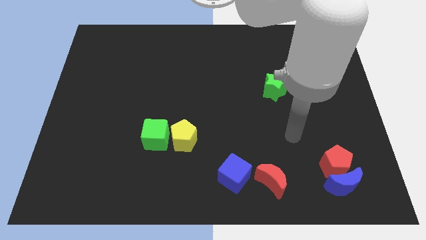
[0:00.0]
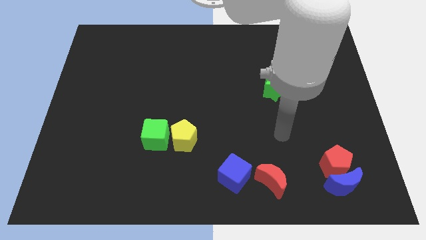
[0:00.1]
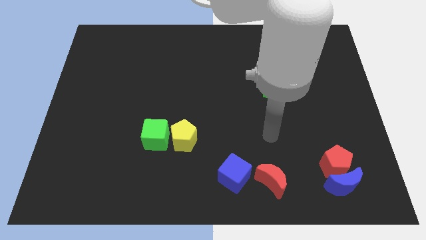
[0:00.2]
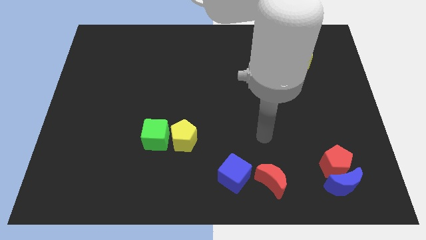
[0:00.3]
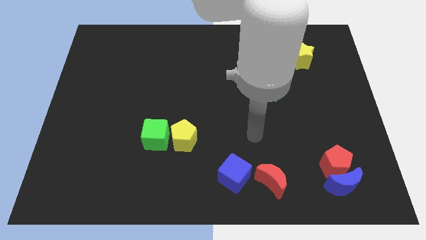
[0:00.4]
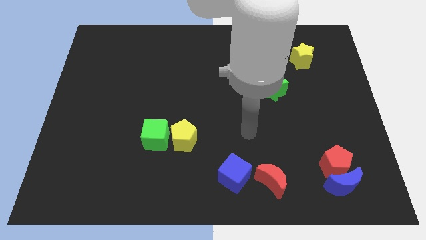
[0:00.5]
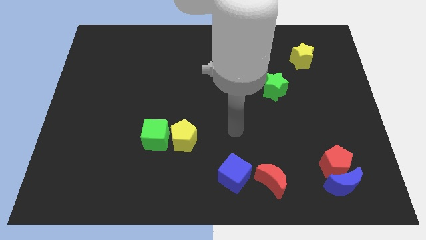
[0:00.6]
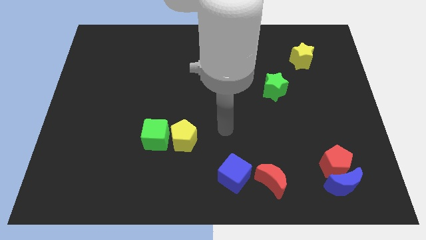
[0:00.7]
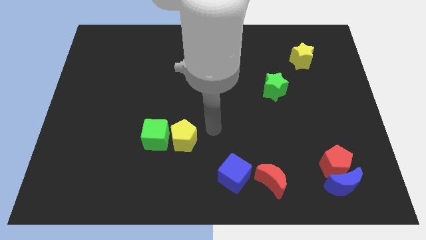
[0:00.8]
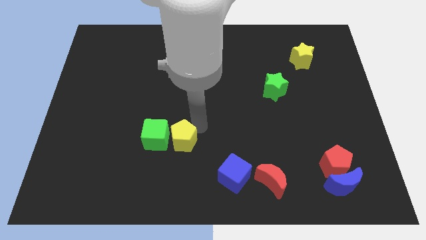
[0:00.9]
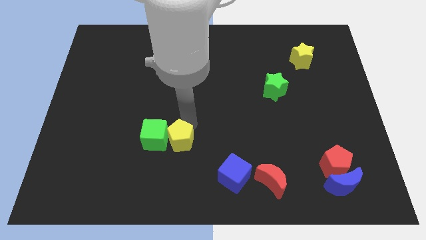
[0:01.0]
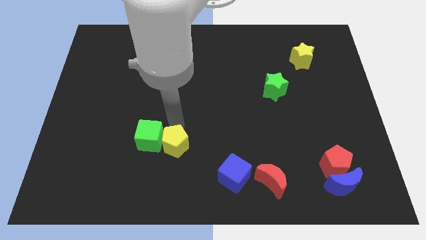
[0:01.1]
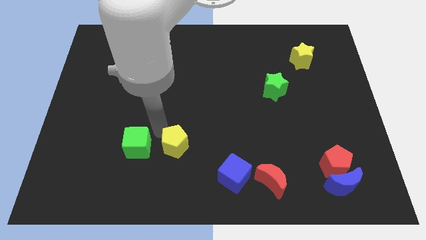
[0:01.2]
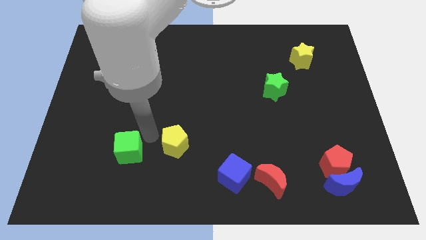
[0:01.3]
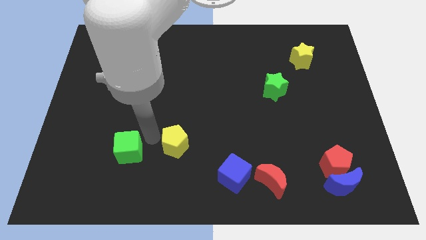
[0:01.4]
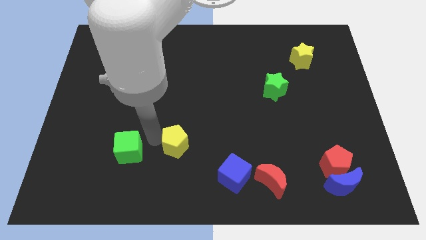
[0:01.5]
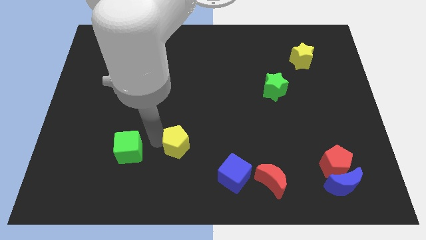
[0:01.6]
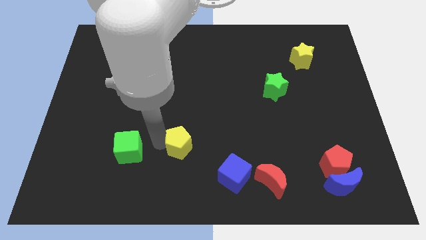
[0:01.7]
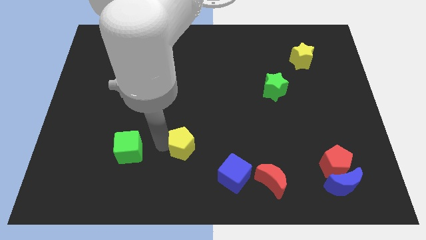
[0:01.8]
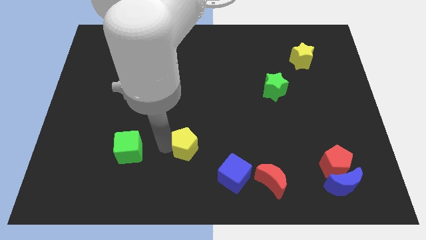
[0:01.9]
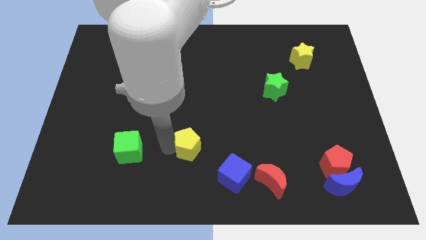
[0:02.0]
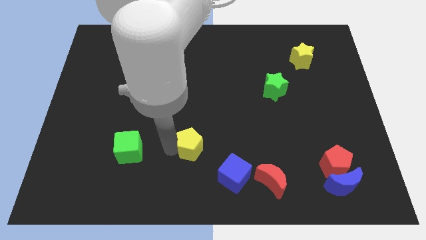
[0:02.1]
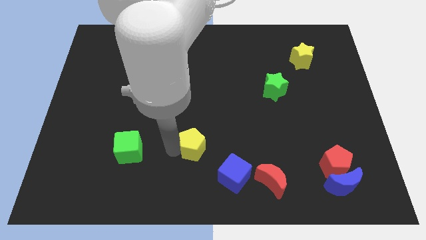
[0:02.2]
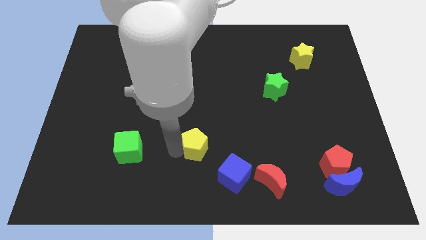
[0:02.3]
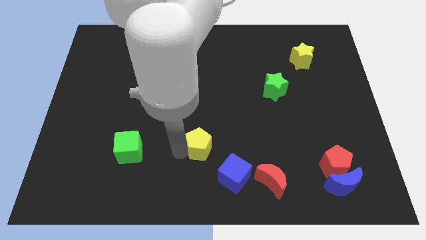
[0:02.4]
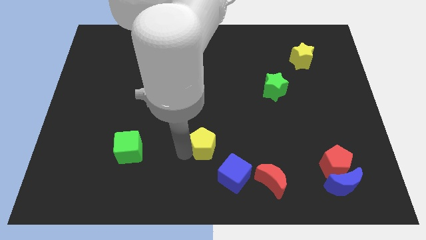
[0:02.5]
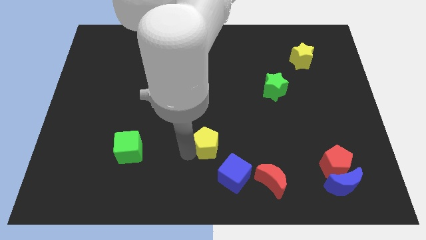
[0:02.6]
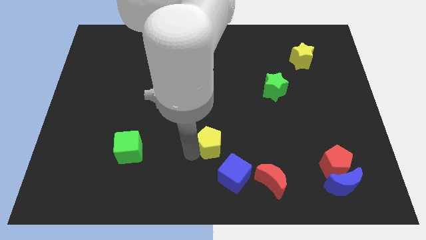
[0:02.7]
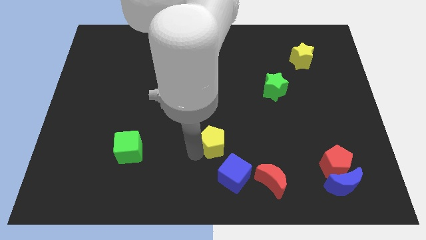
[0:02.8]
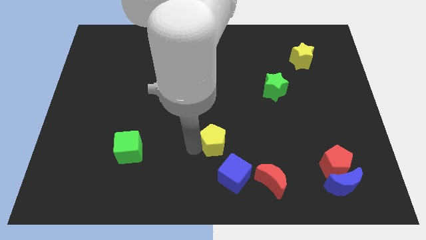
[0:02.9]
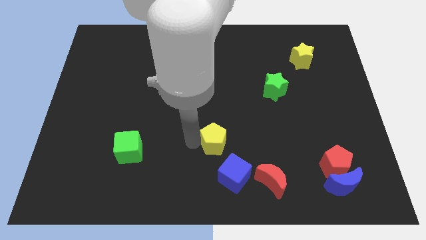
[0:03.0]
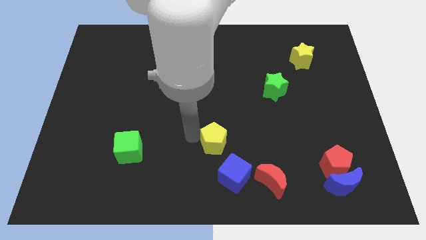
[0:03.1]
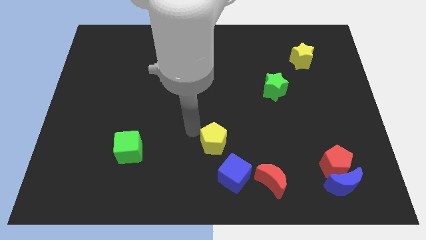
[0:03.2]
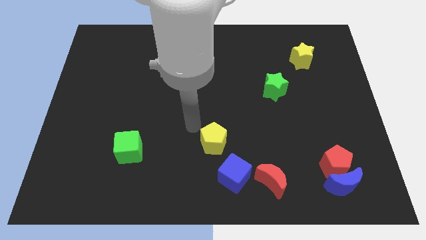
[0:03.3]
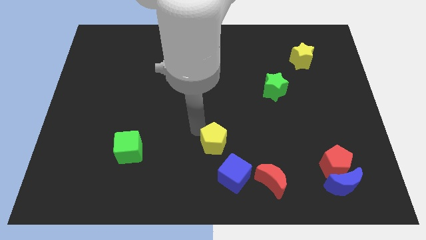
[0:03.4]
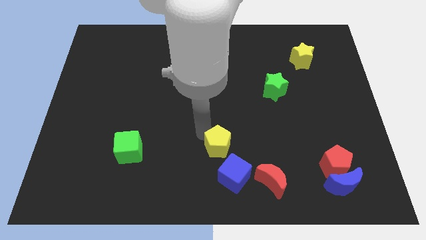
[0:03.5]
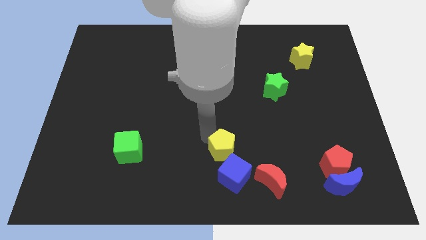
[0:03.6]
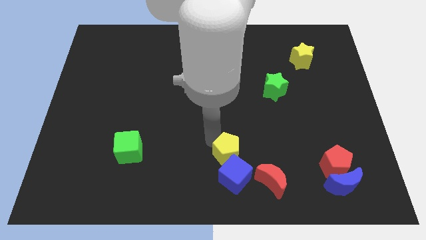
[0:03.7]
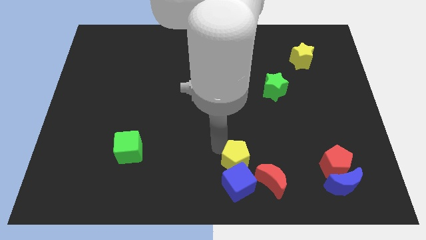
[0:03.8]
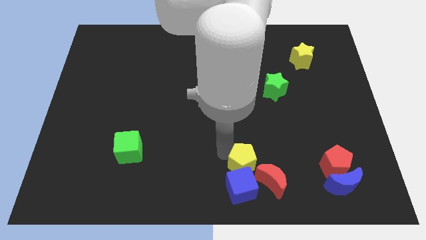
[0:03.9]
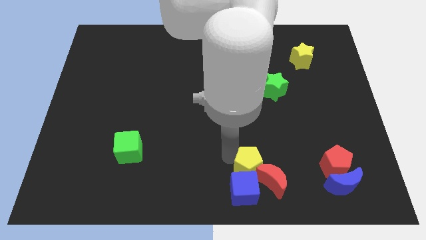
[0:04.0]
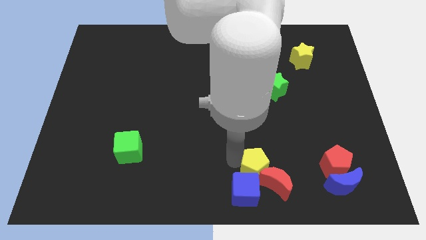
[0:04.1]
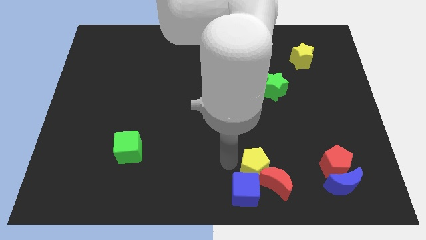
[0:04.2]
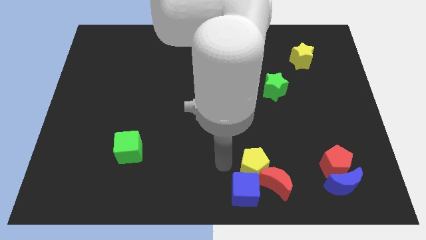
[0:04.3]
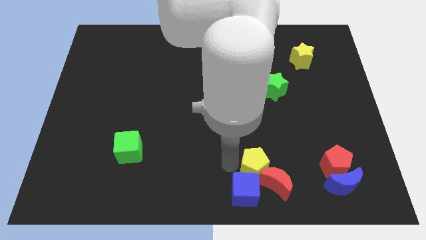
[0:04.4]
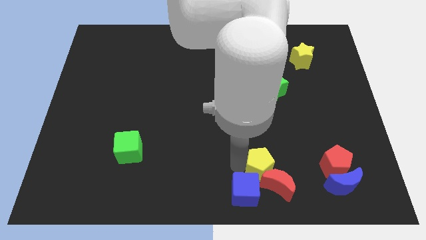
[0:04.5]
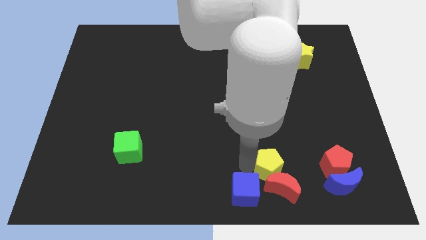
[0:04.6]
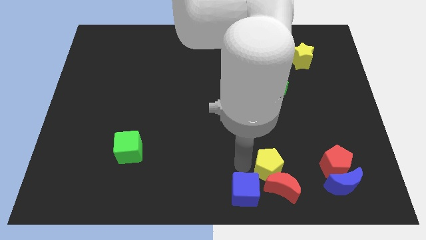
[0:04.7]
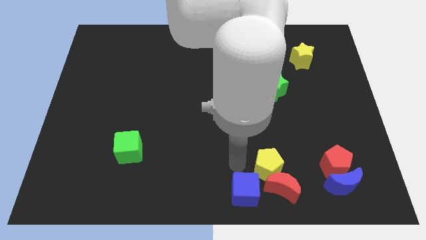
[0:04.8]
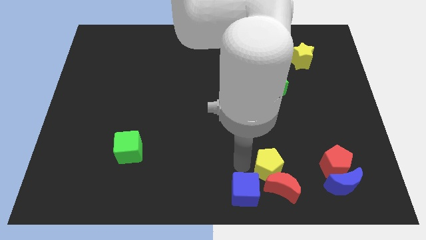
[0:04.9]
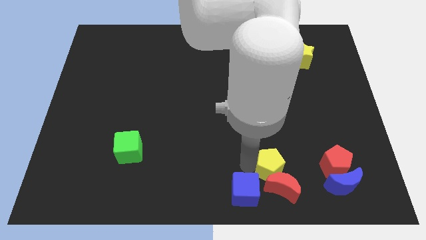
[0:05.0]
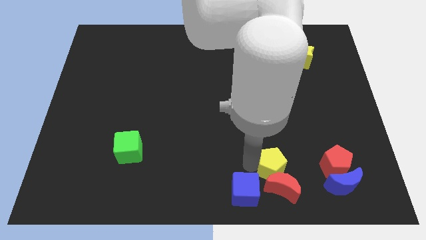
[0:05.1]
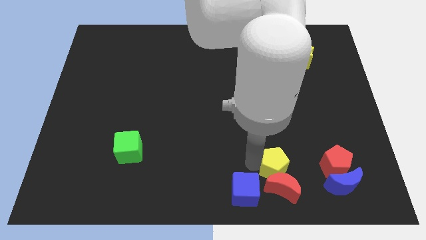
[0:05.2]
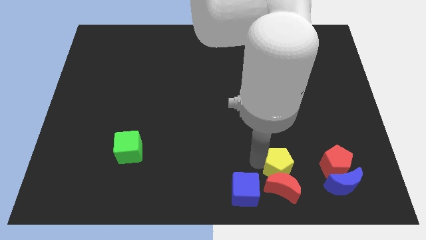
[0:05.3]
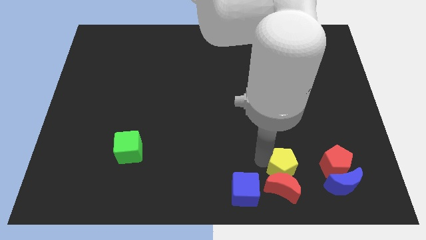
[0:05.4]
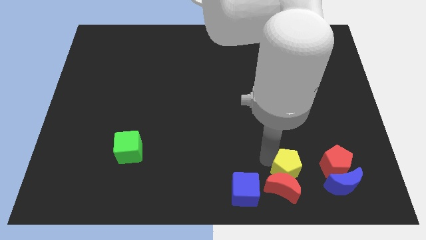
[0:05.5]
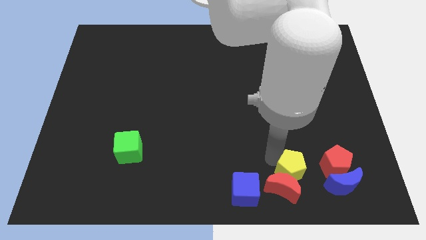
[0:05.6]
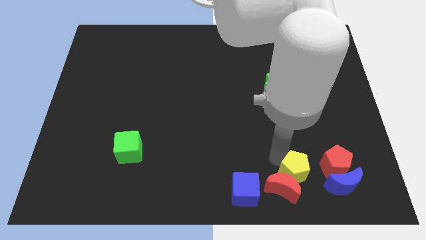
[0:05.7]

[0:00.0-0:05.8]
put the yellow pentagon to the right of the red moon

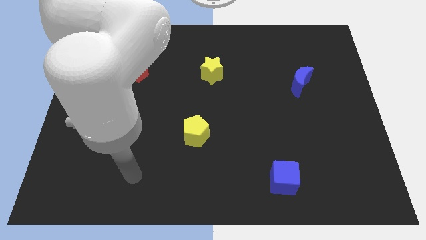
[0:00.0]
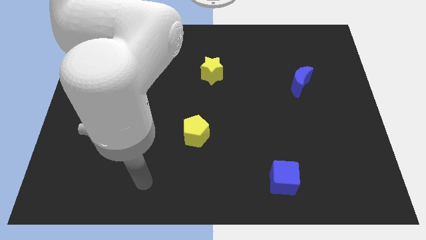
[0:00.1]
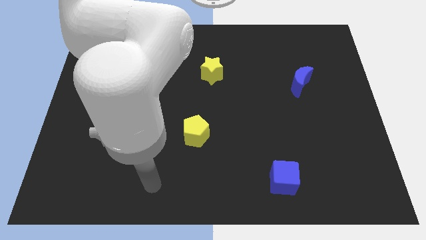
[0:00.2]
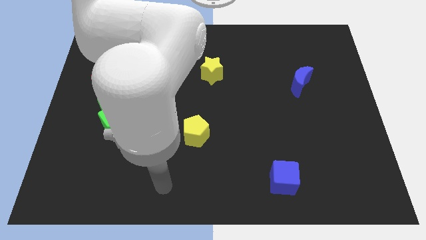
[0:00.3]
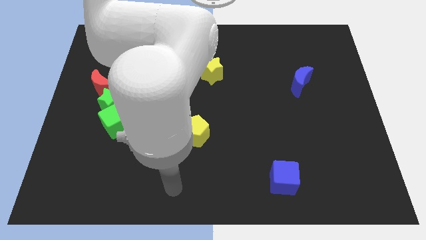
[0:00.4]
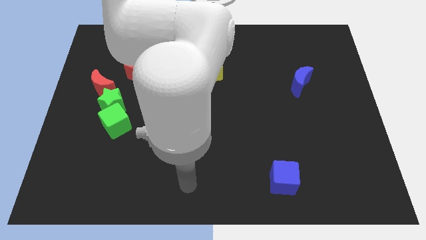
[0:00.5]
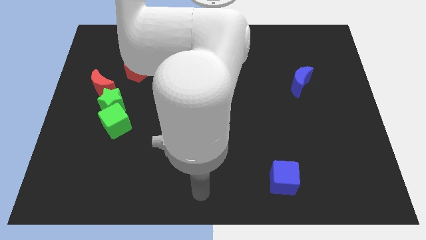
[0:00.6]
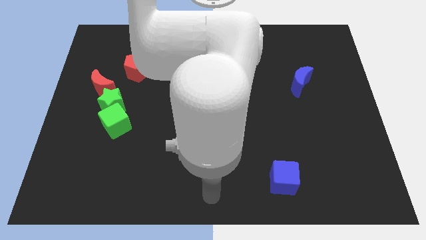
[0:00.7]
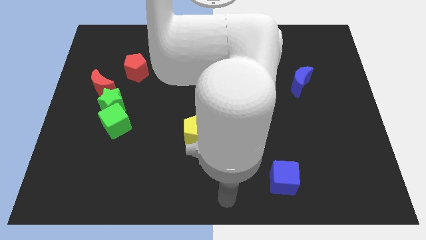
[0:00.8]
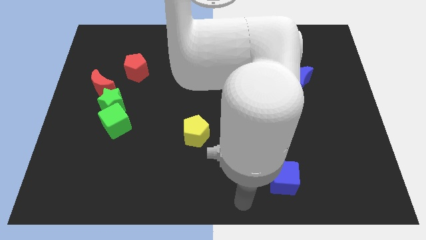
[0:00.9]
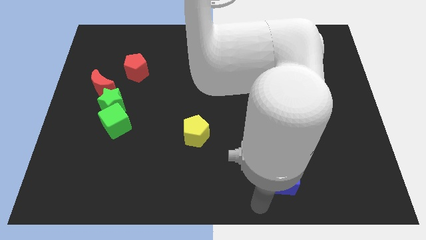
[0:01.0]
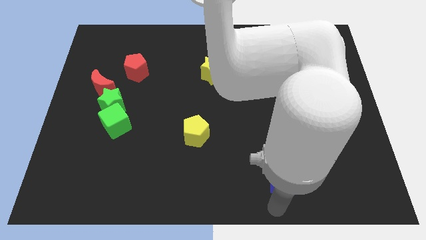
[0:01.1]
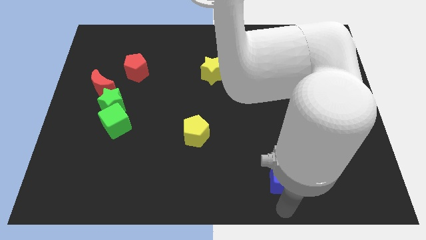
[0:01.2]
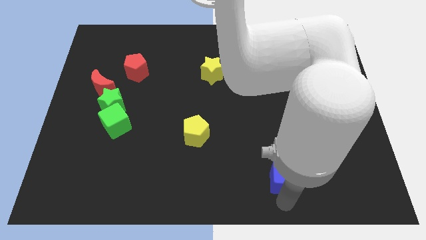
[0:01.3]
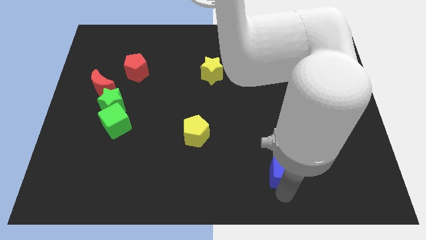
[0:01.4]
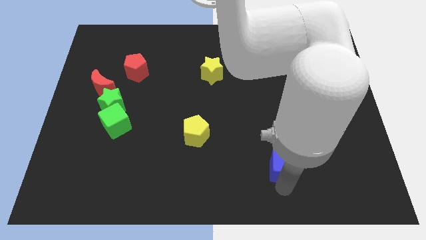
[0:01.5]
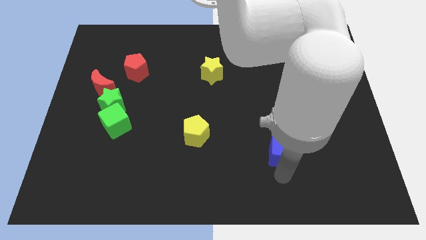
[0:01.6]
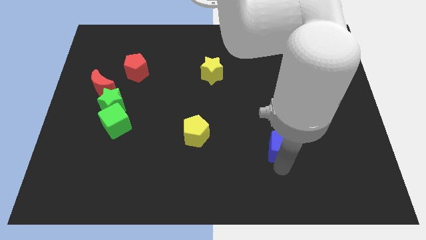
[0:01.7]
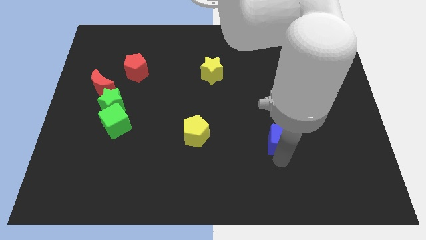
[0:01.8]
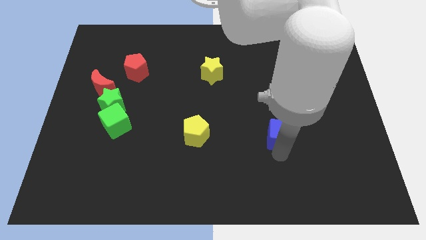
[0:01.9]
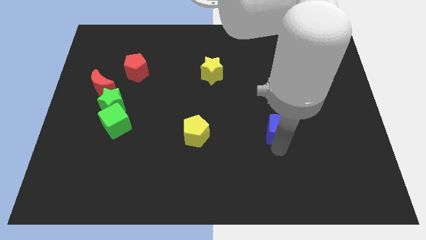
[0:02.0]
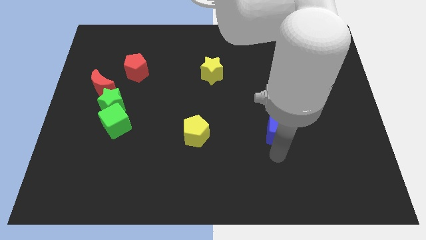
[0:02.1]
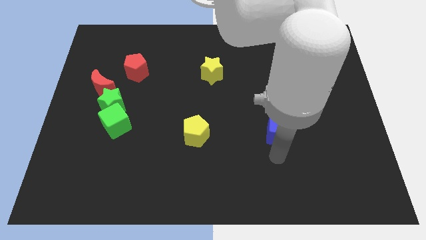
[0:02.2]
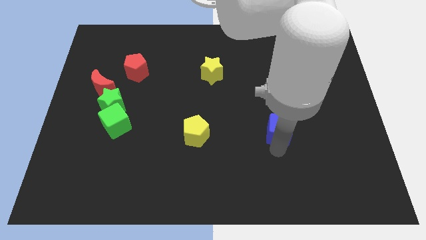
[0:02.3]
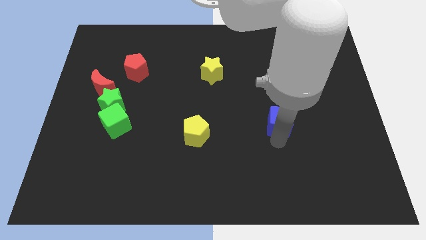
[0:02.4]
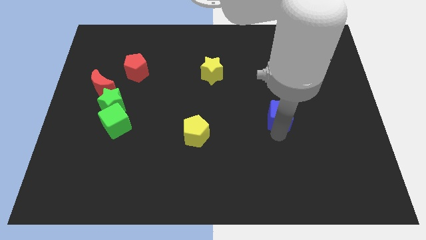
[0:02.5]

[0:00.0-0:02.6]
move the blue cube diagonally down and to the left of the blue moon
